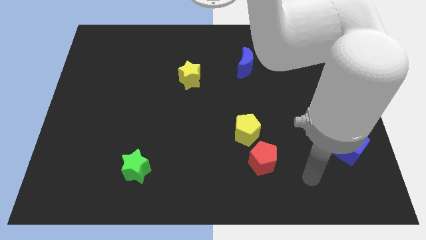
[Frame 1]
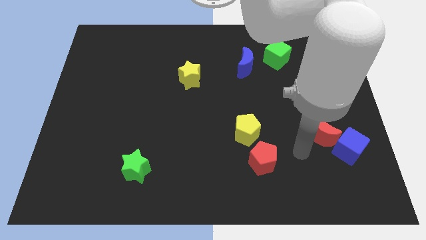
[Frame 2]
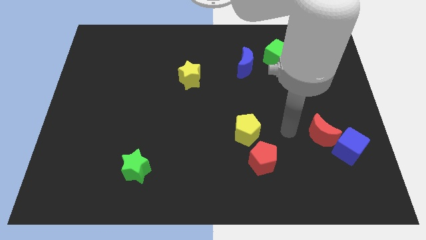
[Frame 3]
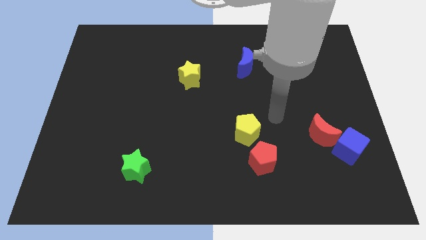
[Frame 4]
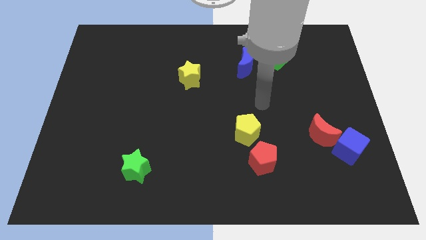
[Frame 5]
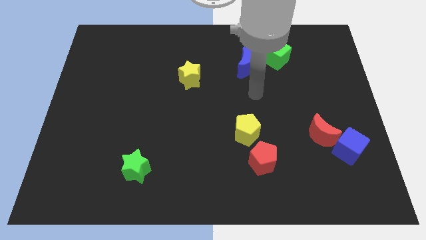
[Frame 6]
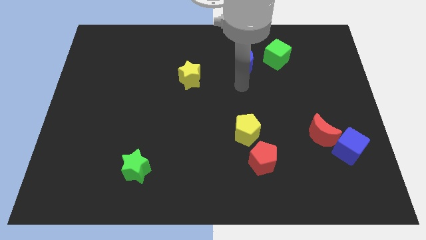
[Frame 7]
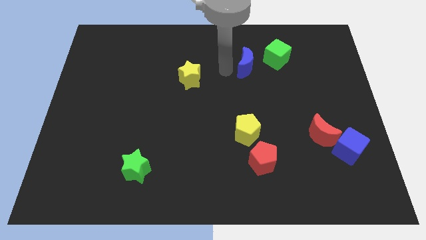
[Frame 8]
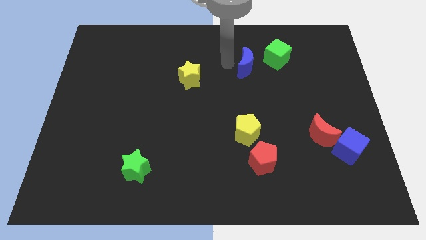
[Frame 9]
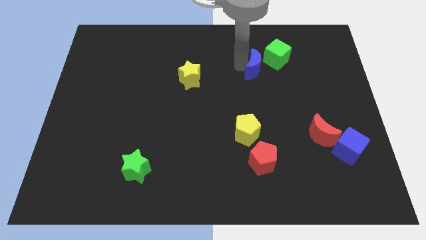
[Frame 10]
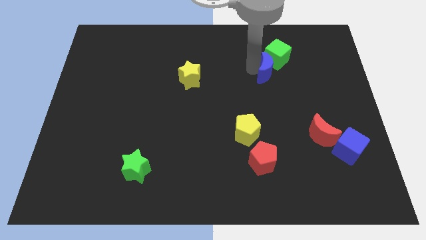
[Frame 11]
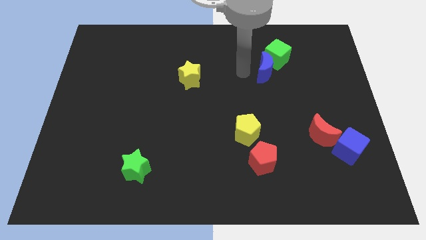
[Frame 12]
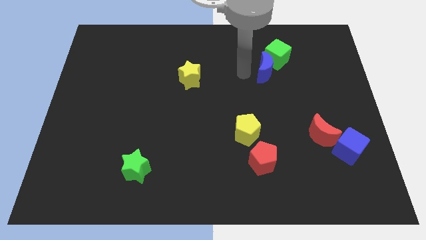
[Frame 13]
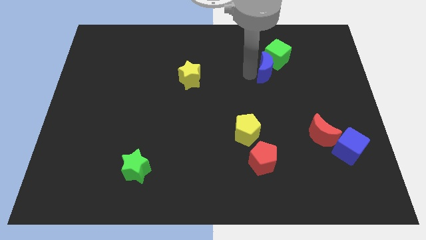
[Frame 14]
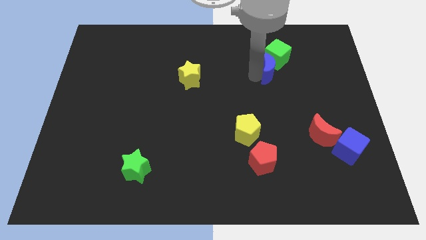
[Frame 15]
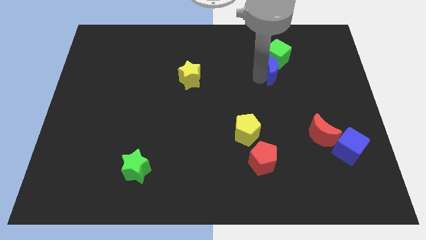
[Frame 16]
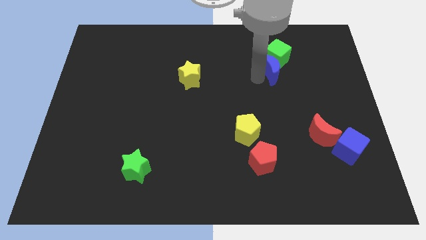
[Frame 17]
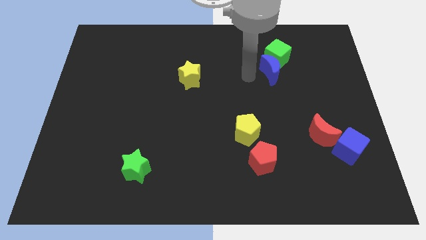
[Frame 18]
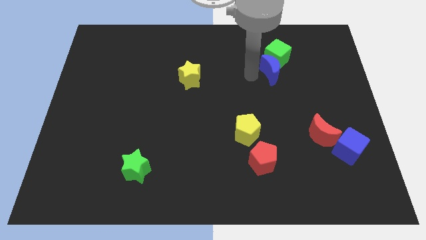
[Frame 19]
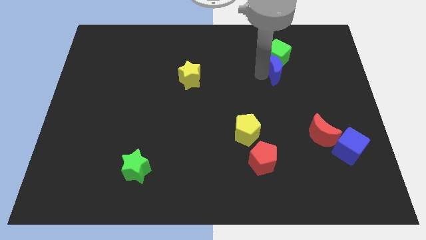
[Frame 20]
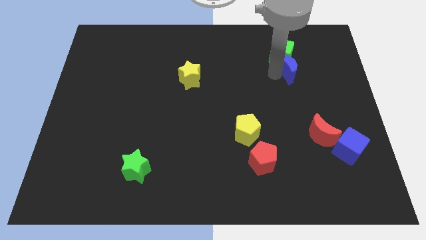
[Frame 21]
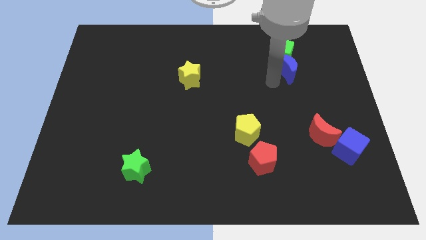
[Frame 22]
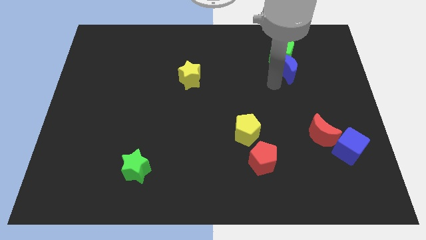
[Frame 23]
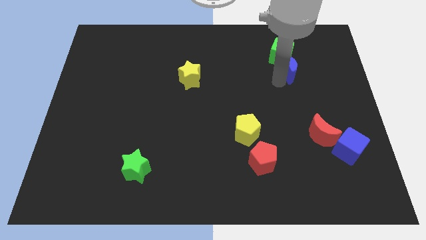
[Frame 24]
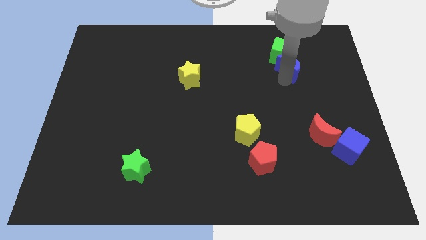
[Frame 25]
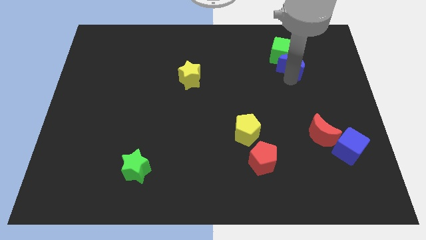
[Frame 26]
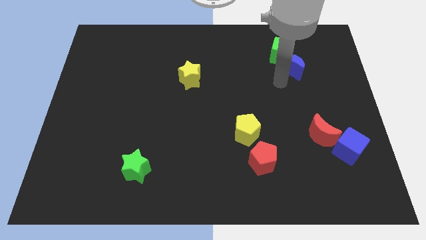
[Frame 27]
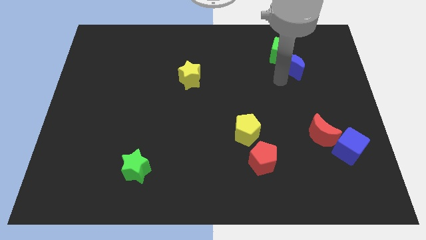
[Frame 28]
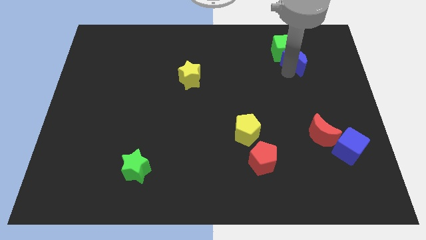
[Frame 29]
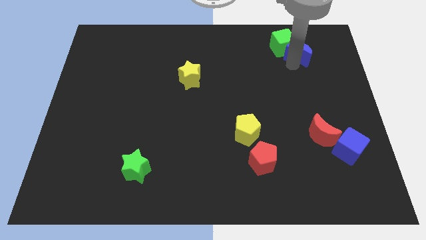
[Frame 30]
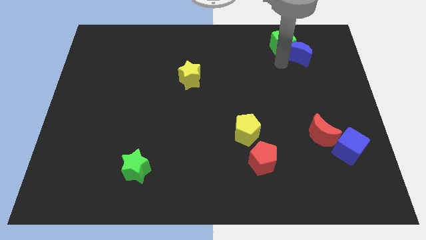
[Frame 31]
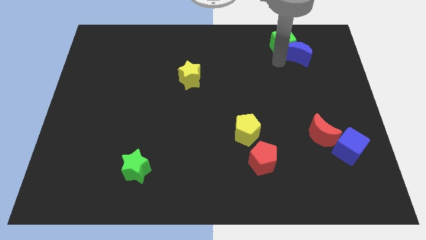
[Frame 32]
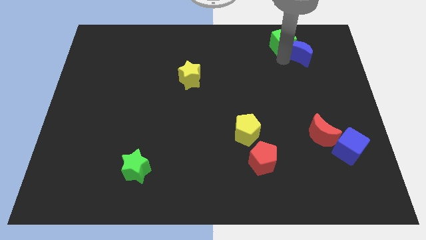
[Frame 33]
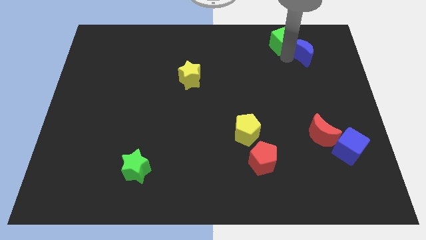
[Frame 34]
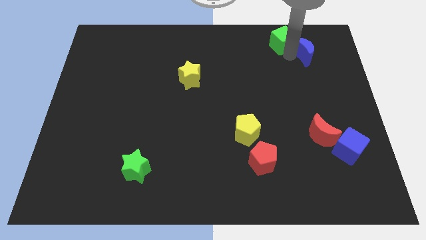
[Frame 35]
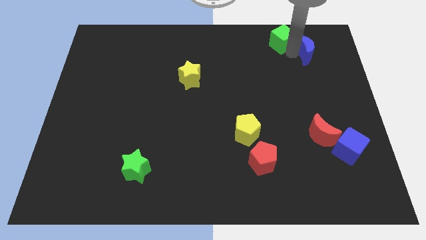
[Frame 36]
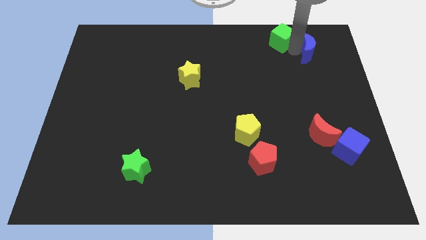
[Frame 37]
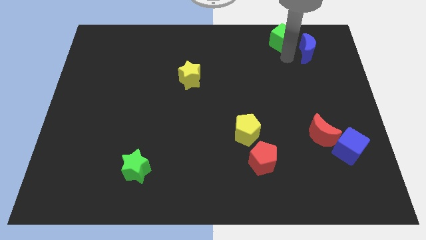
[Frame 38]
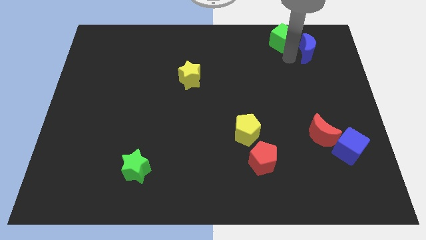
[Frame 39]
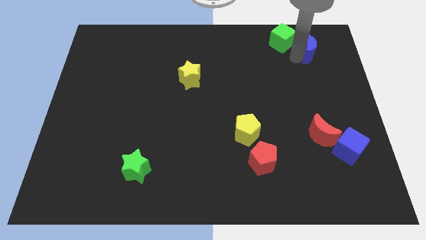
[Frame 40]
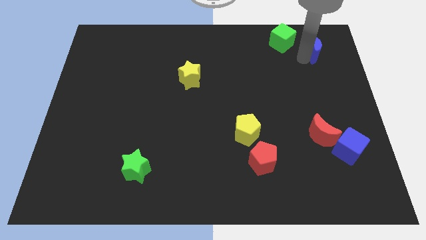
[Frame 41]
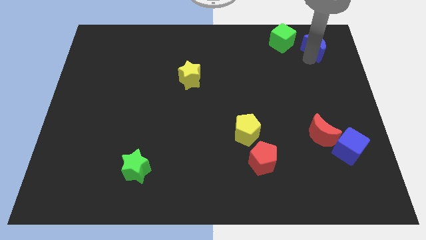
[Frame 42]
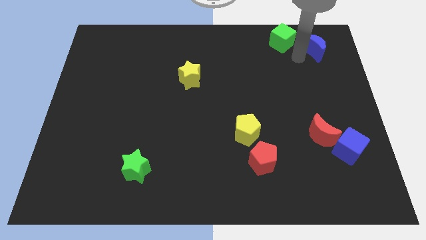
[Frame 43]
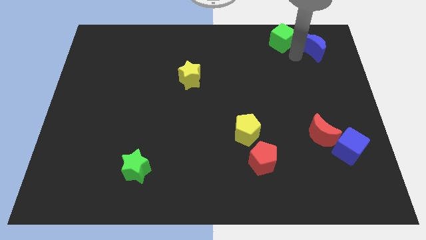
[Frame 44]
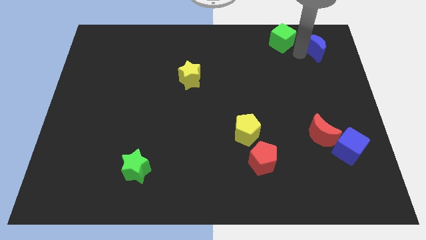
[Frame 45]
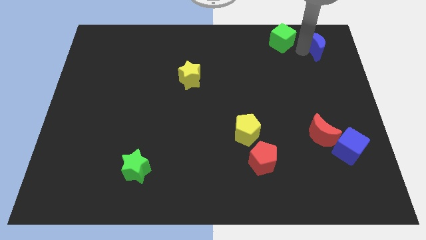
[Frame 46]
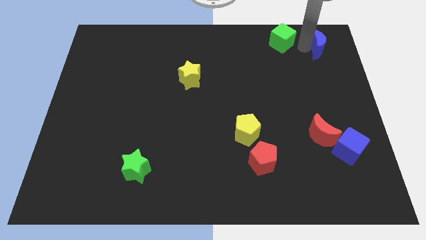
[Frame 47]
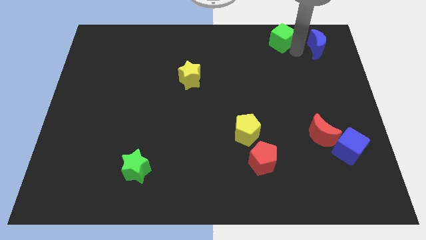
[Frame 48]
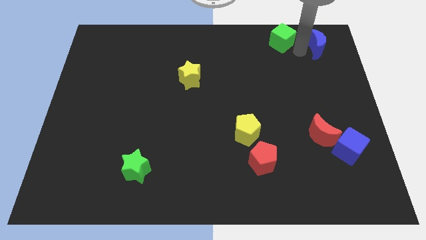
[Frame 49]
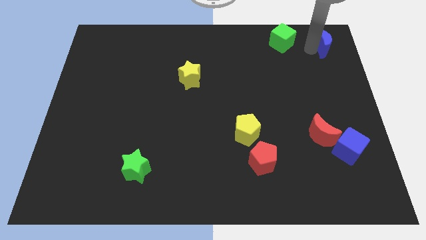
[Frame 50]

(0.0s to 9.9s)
slide the blue moon to the upper right corner

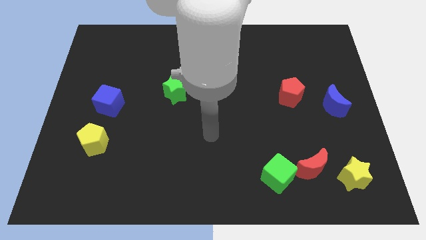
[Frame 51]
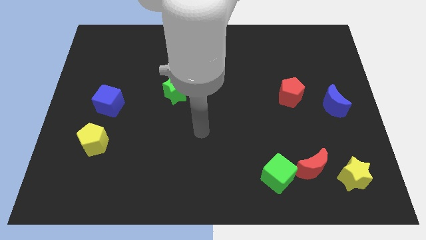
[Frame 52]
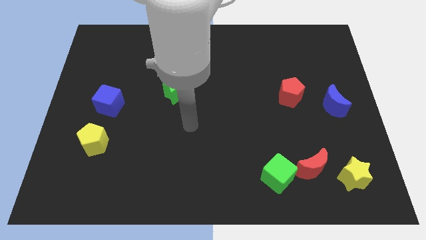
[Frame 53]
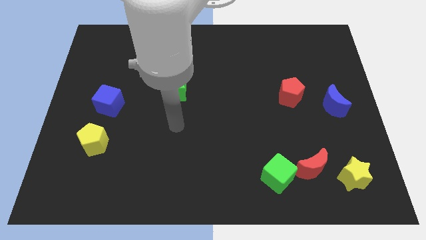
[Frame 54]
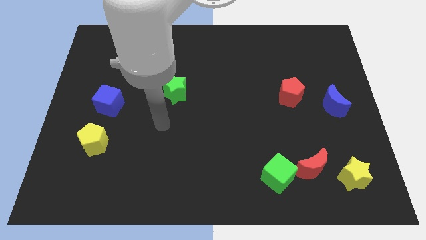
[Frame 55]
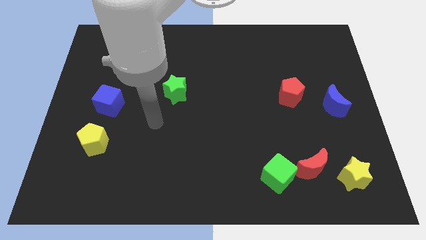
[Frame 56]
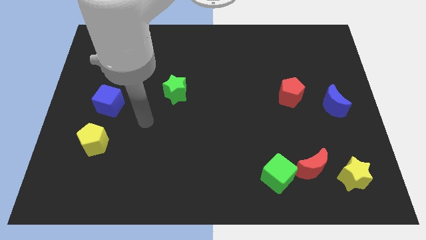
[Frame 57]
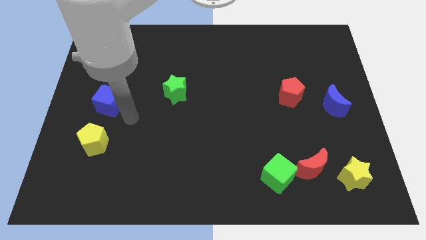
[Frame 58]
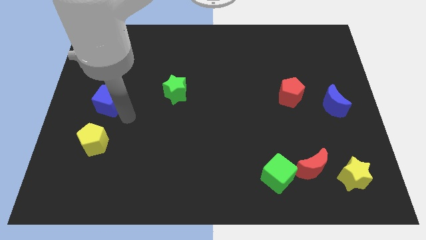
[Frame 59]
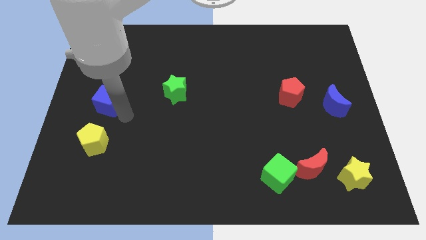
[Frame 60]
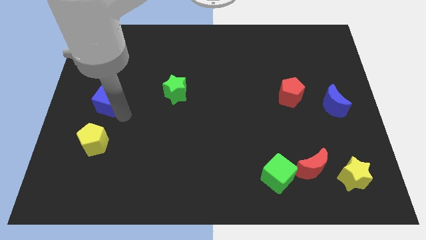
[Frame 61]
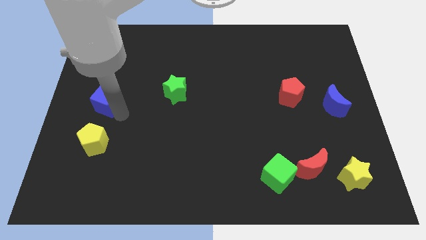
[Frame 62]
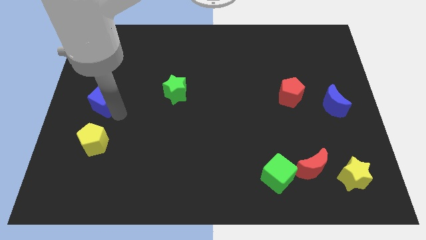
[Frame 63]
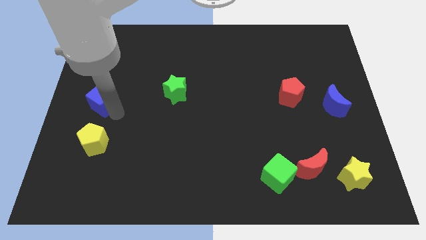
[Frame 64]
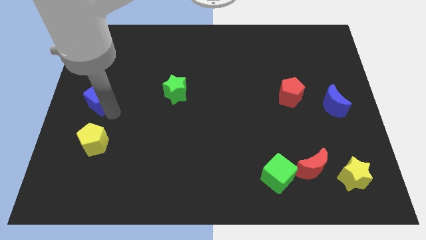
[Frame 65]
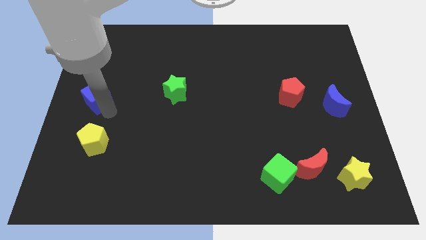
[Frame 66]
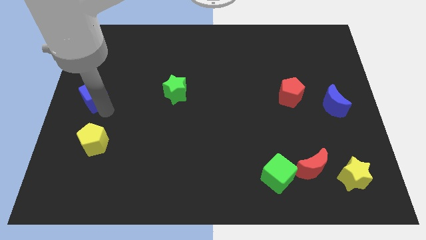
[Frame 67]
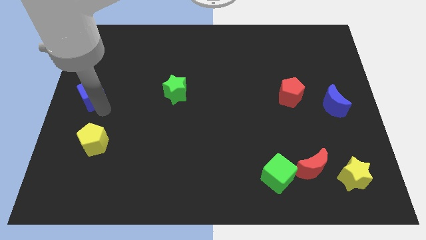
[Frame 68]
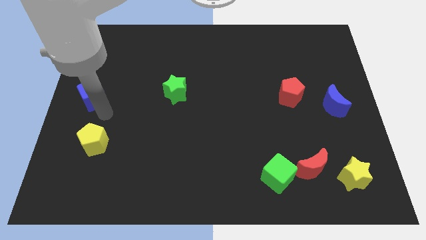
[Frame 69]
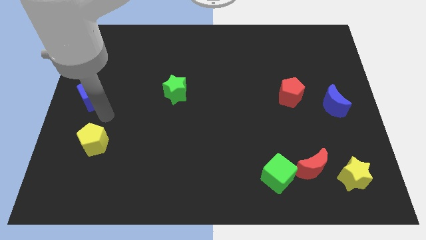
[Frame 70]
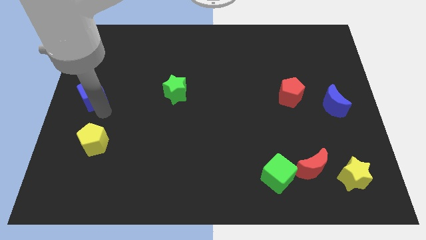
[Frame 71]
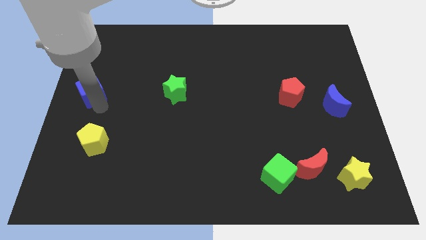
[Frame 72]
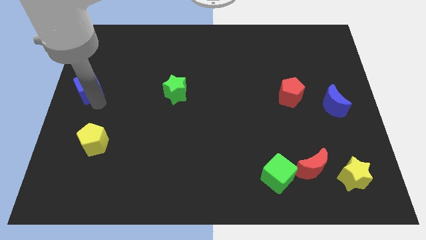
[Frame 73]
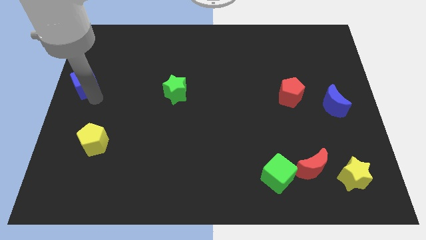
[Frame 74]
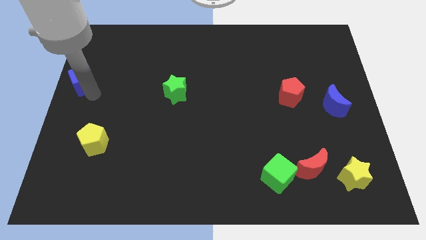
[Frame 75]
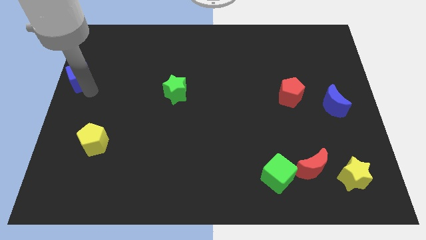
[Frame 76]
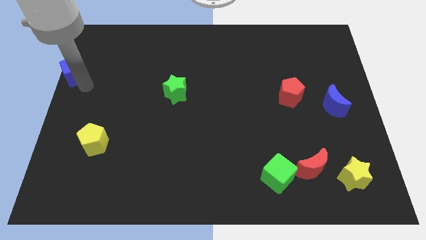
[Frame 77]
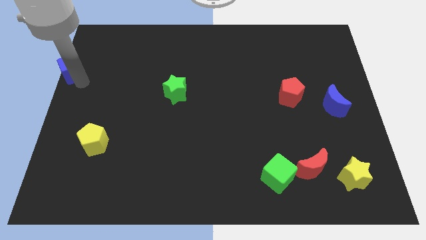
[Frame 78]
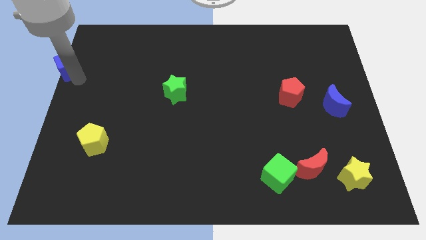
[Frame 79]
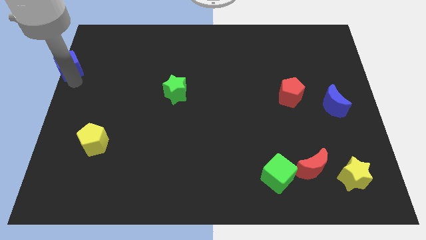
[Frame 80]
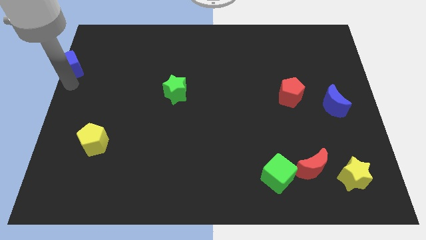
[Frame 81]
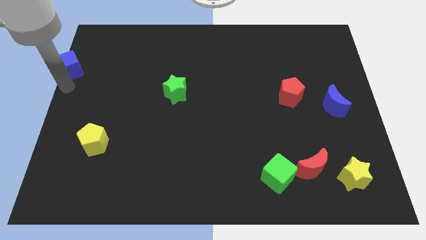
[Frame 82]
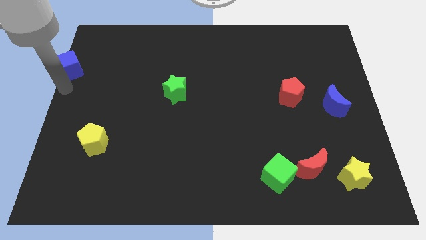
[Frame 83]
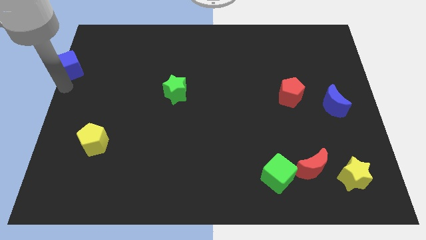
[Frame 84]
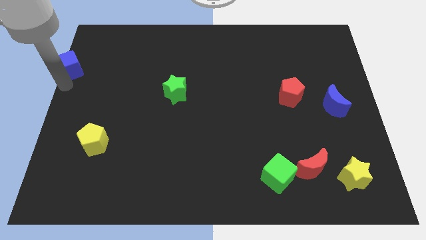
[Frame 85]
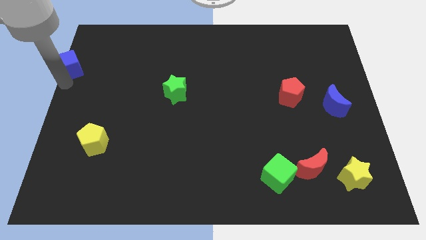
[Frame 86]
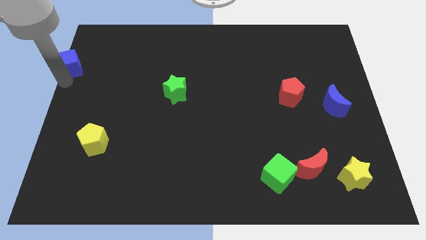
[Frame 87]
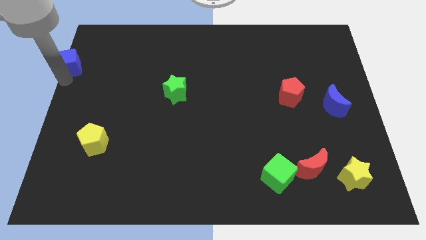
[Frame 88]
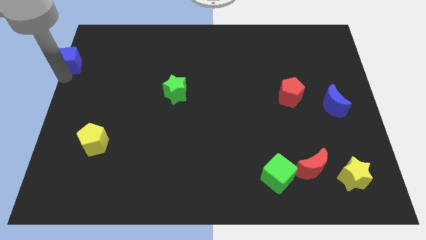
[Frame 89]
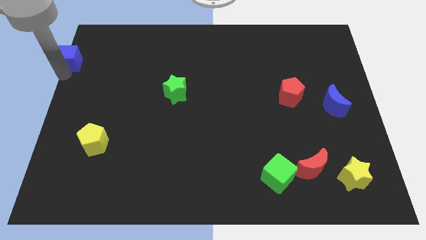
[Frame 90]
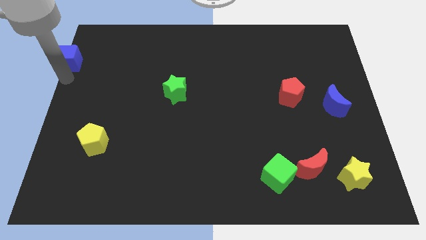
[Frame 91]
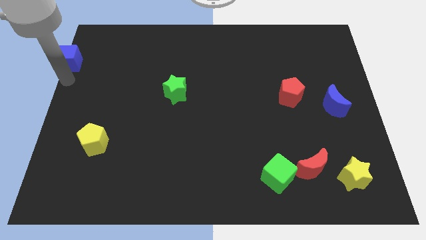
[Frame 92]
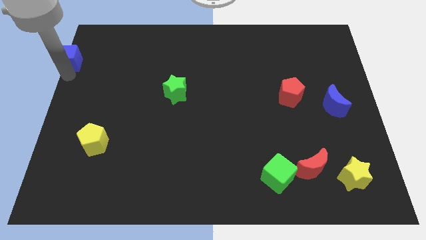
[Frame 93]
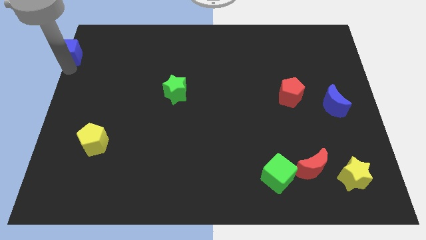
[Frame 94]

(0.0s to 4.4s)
put the blue cube to the top left corner
